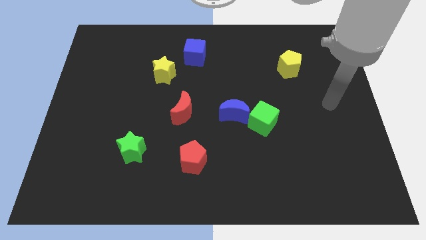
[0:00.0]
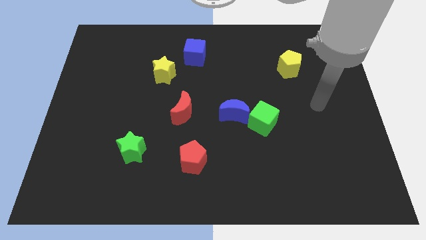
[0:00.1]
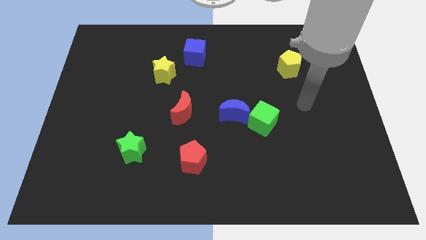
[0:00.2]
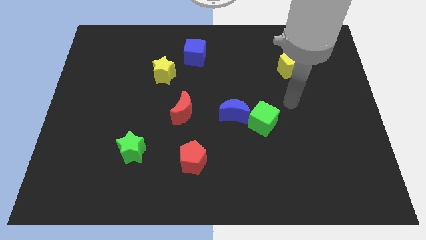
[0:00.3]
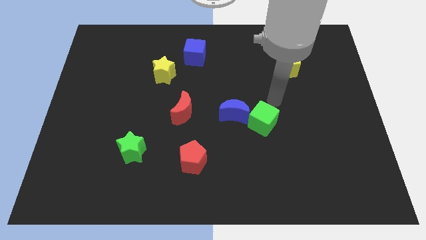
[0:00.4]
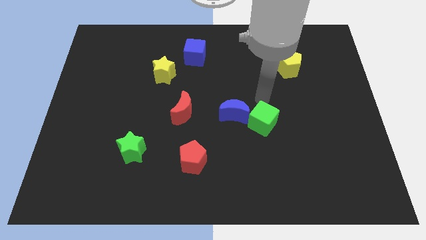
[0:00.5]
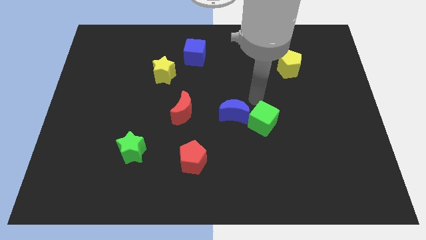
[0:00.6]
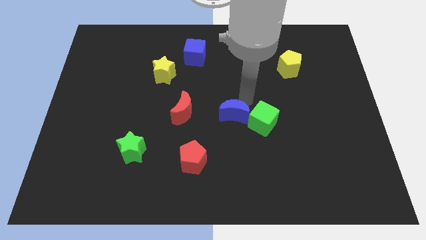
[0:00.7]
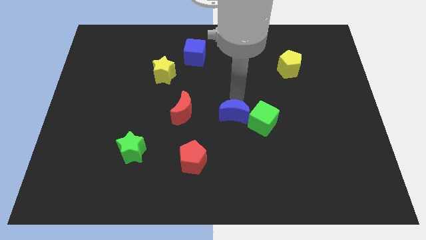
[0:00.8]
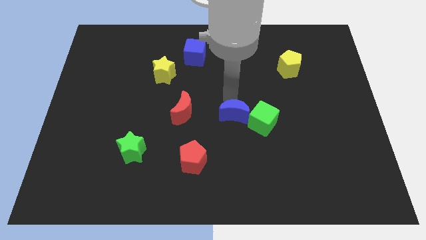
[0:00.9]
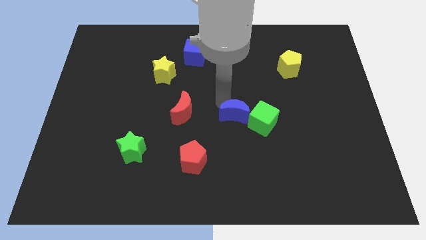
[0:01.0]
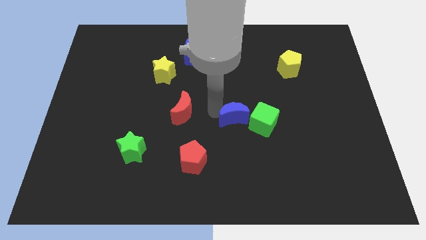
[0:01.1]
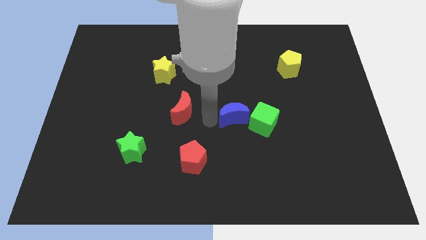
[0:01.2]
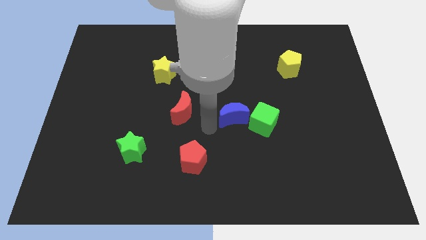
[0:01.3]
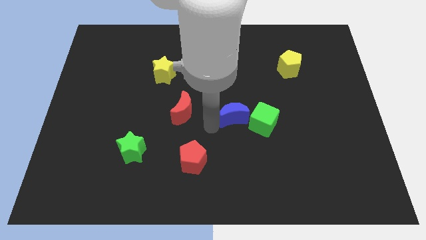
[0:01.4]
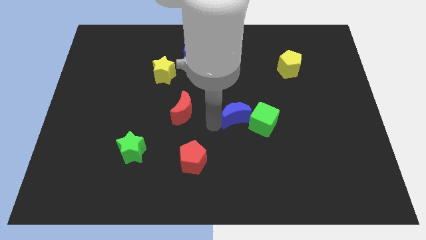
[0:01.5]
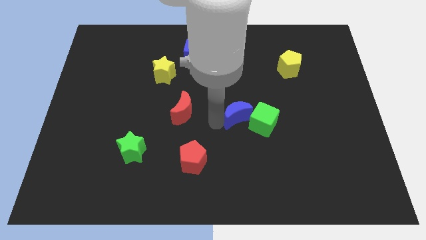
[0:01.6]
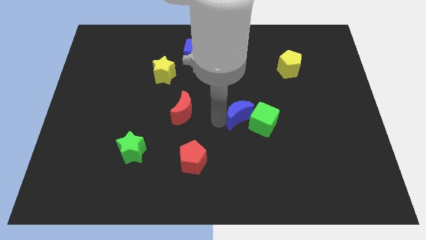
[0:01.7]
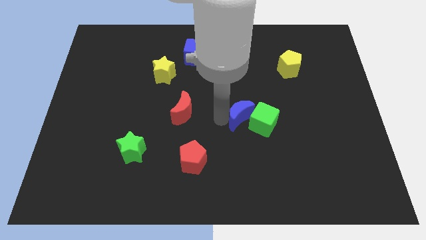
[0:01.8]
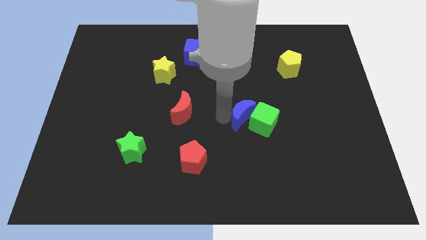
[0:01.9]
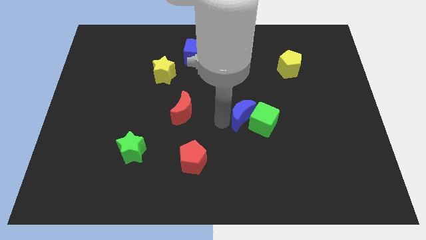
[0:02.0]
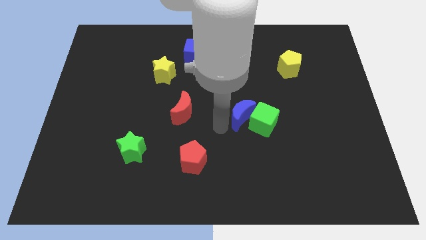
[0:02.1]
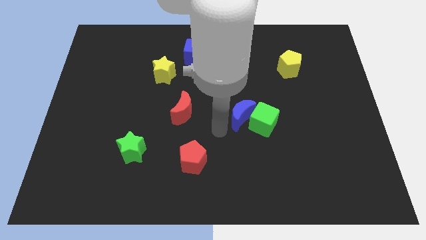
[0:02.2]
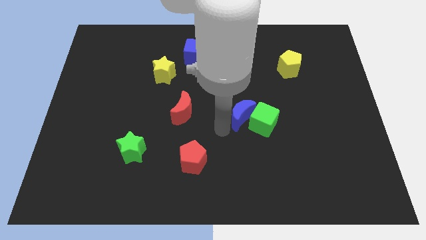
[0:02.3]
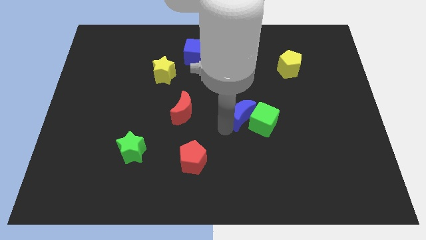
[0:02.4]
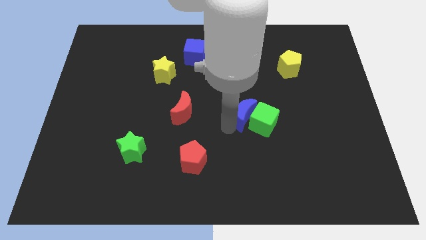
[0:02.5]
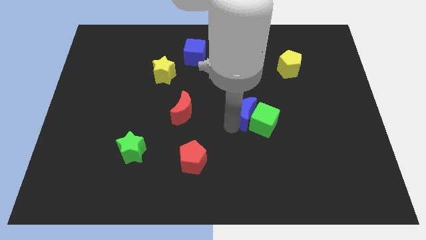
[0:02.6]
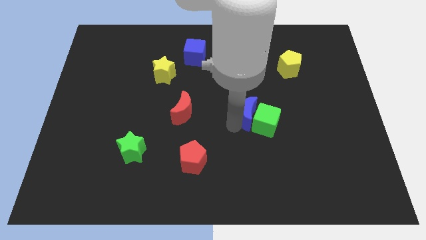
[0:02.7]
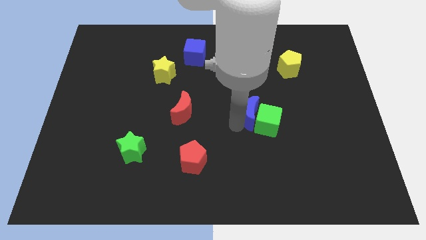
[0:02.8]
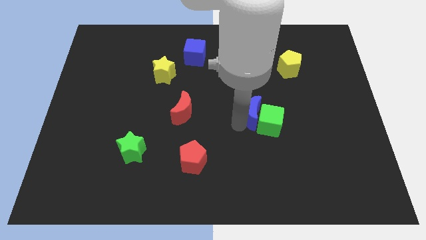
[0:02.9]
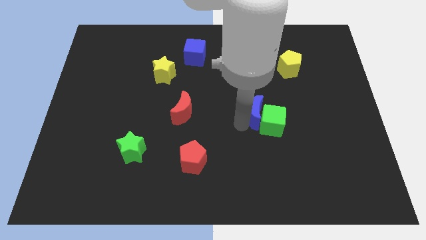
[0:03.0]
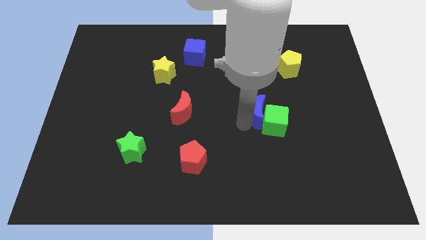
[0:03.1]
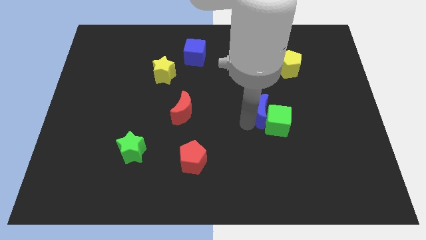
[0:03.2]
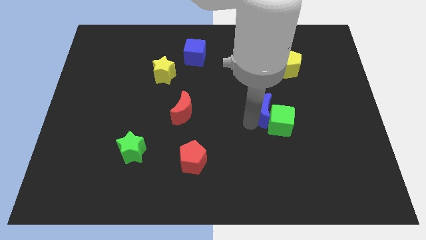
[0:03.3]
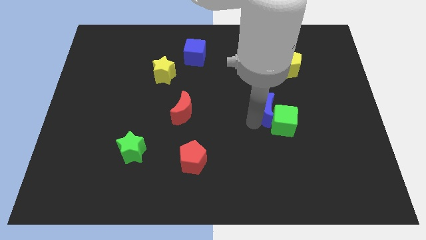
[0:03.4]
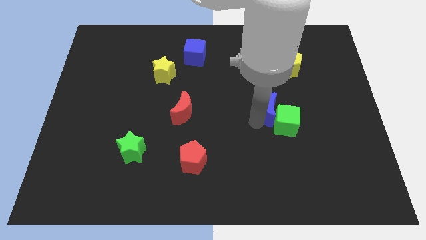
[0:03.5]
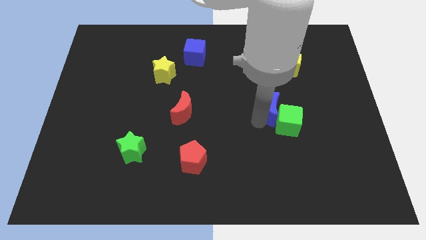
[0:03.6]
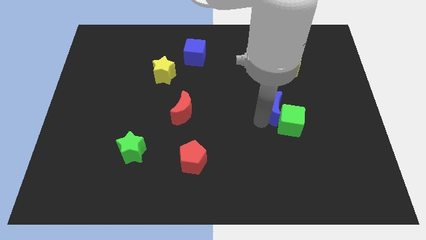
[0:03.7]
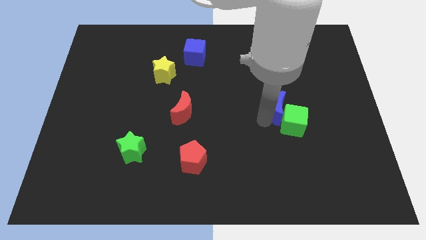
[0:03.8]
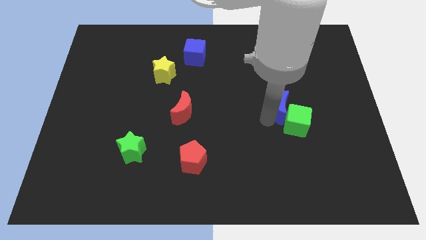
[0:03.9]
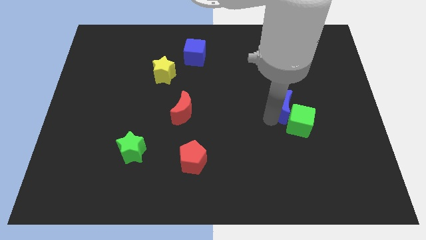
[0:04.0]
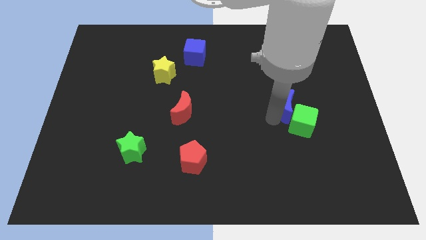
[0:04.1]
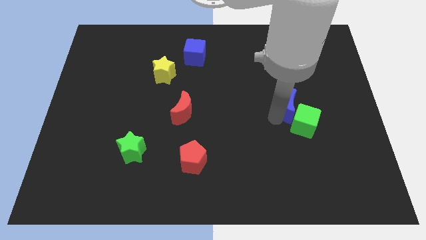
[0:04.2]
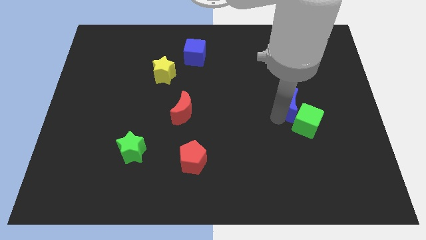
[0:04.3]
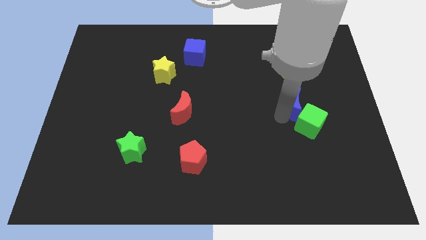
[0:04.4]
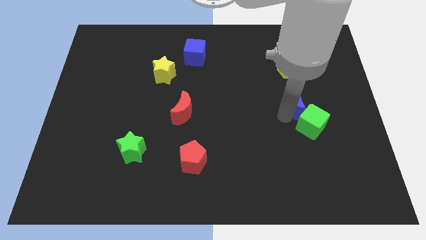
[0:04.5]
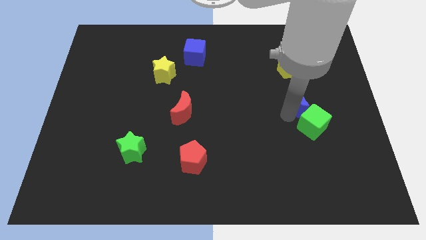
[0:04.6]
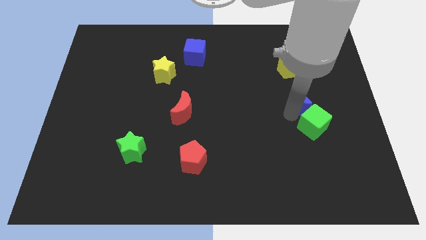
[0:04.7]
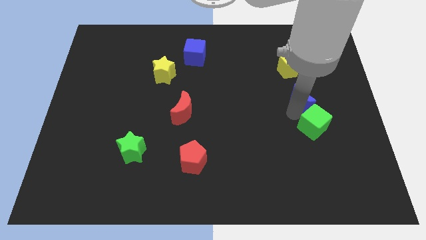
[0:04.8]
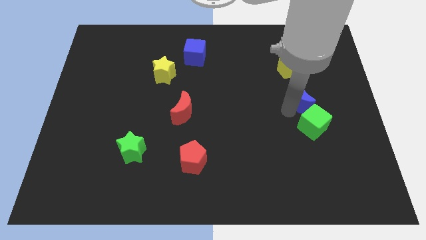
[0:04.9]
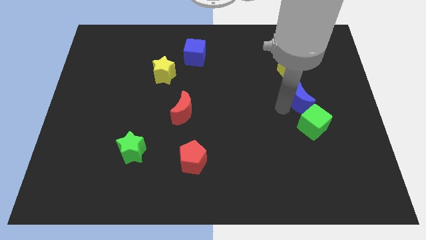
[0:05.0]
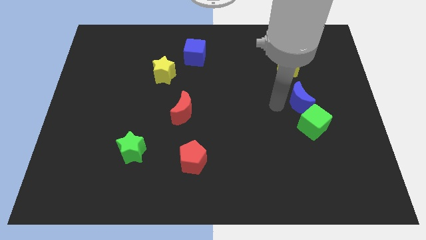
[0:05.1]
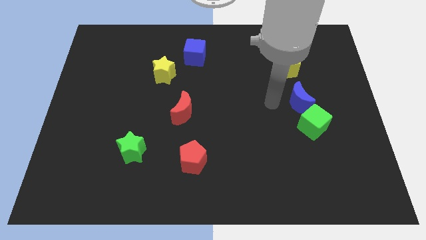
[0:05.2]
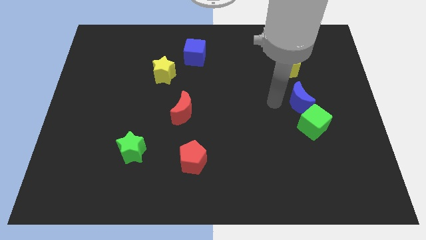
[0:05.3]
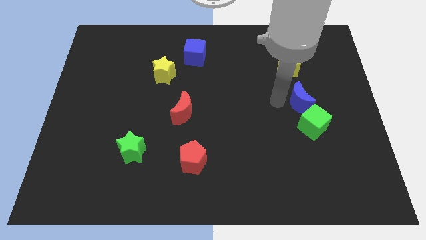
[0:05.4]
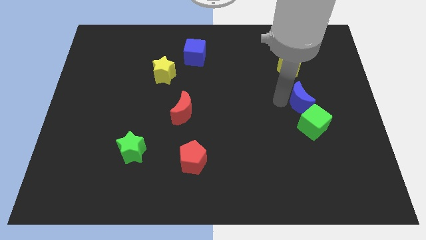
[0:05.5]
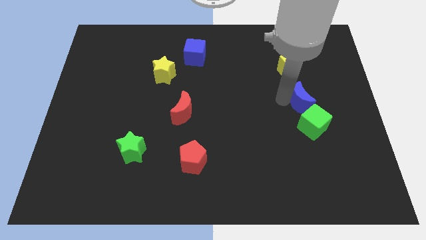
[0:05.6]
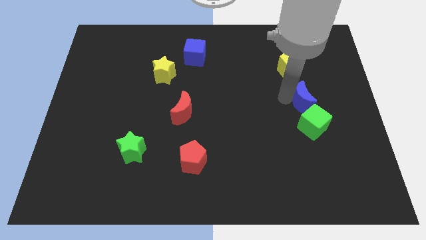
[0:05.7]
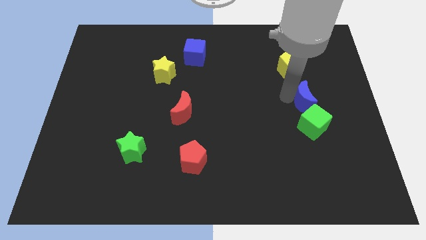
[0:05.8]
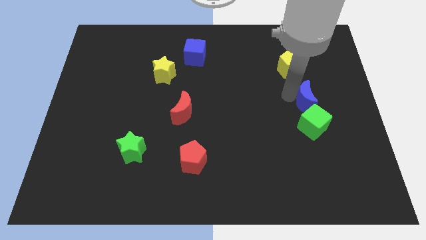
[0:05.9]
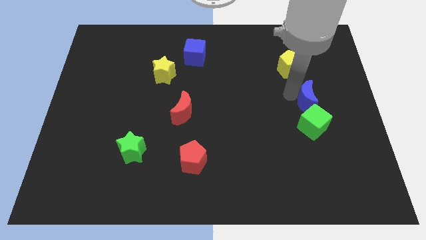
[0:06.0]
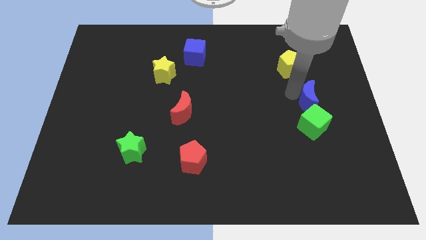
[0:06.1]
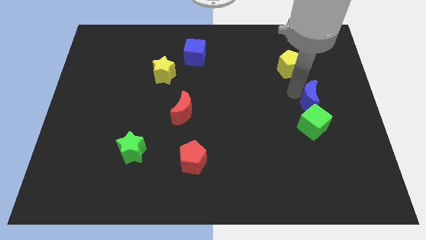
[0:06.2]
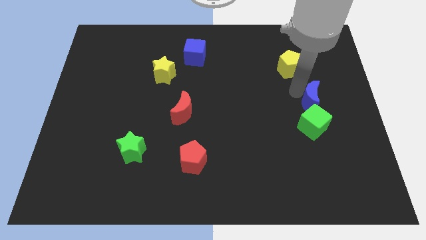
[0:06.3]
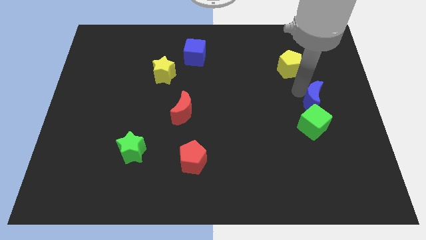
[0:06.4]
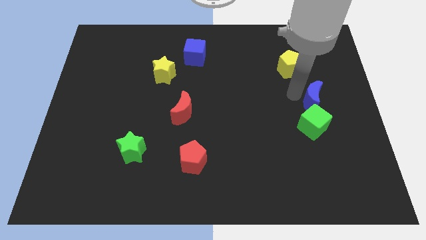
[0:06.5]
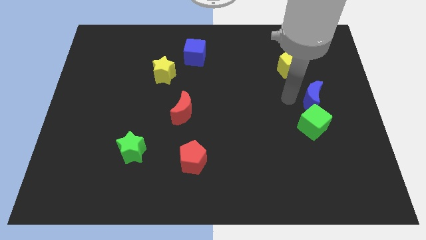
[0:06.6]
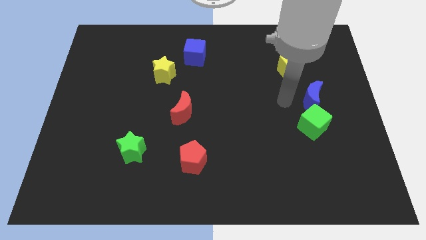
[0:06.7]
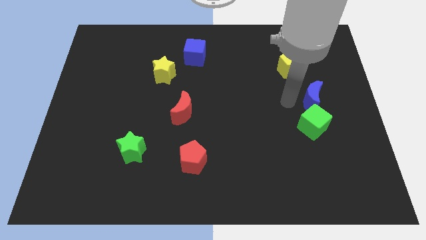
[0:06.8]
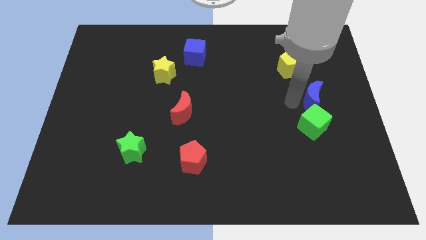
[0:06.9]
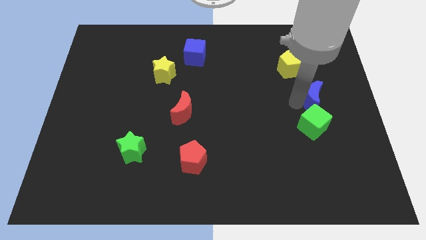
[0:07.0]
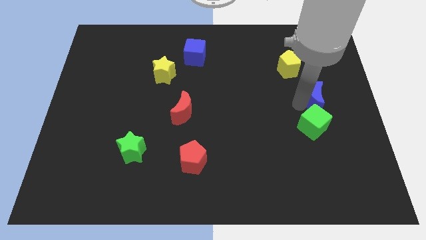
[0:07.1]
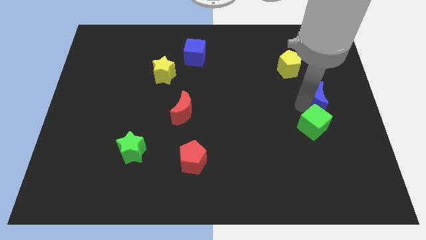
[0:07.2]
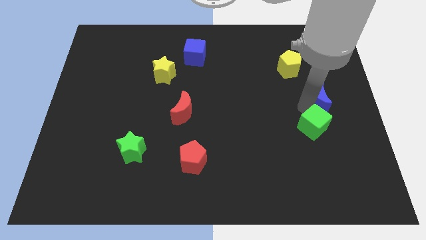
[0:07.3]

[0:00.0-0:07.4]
move the blue moon to the right side
